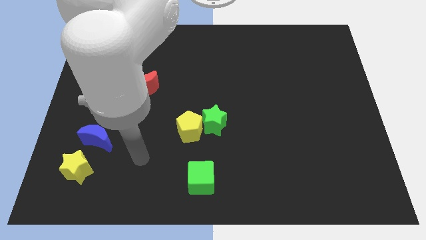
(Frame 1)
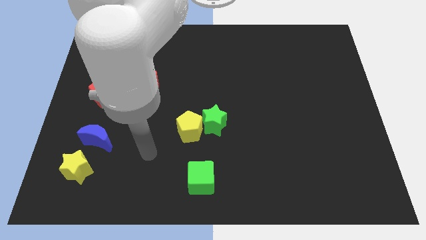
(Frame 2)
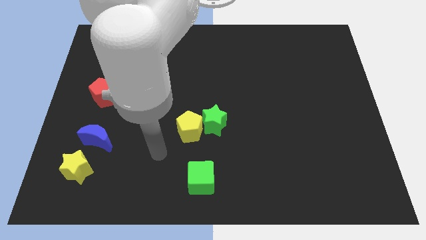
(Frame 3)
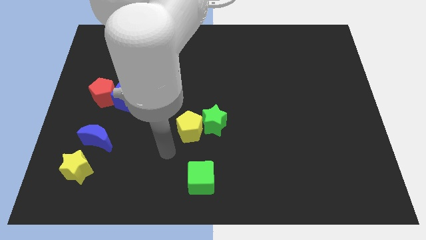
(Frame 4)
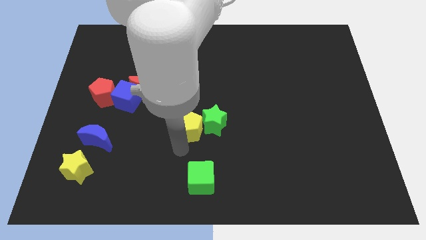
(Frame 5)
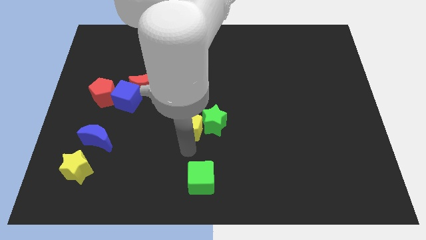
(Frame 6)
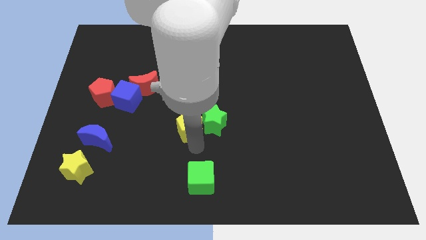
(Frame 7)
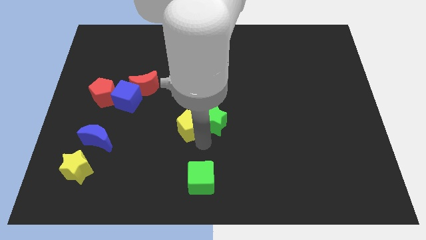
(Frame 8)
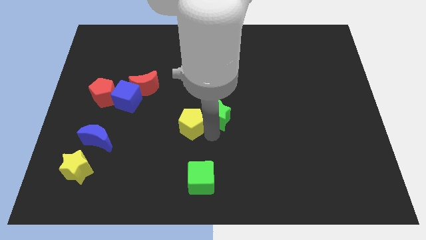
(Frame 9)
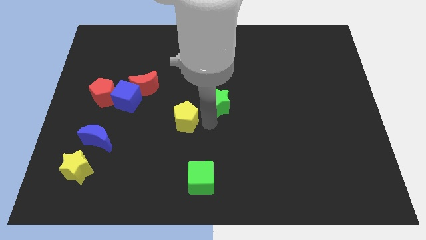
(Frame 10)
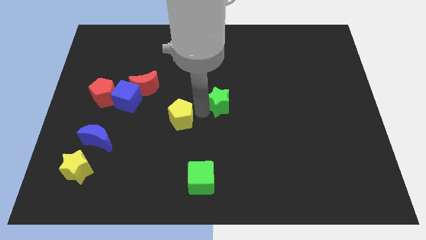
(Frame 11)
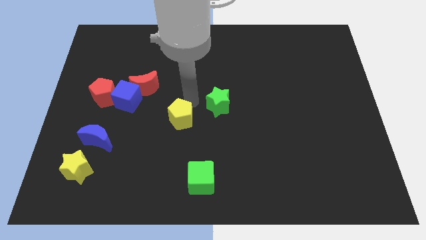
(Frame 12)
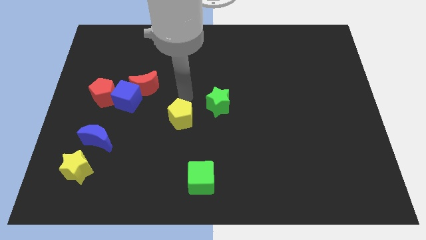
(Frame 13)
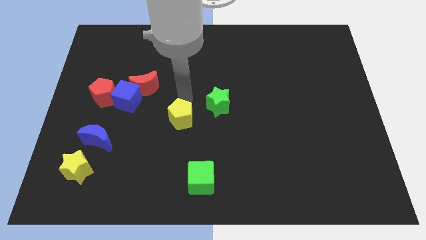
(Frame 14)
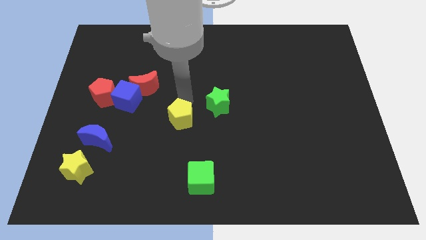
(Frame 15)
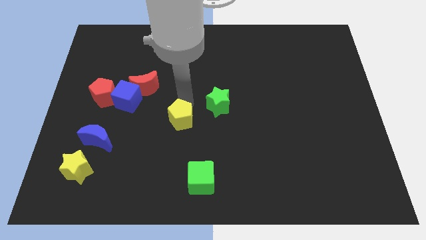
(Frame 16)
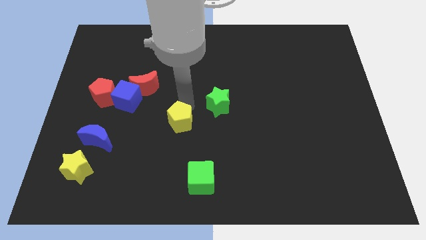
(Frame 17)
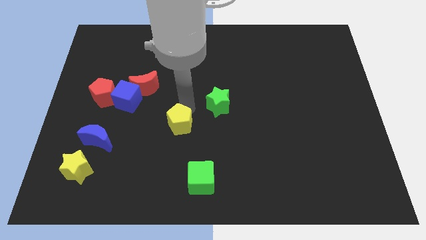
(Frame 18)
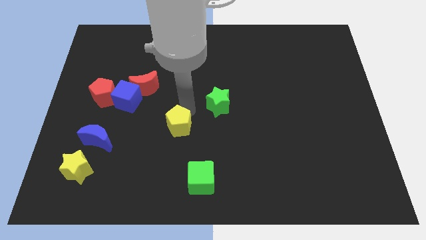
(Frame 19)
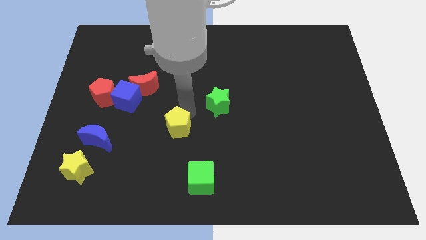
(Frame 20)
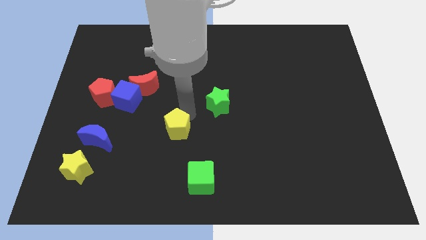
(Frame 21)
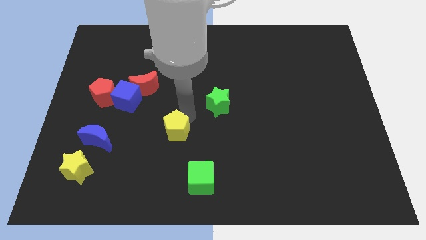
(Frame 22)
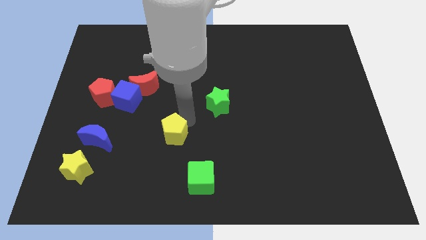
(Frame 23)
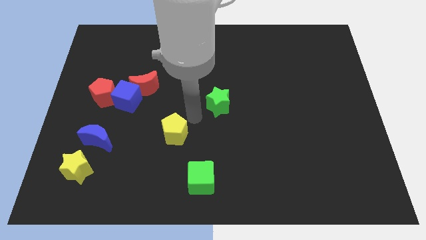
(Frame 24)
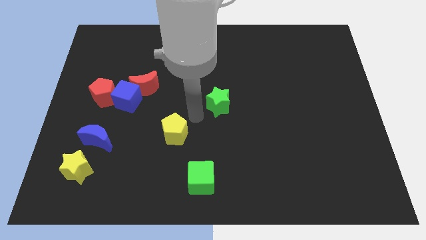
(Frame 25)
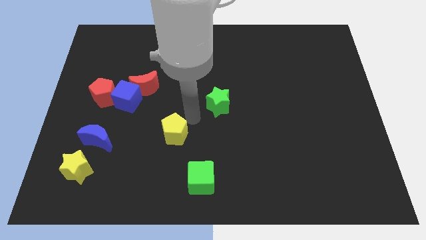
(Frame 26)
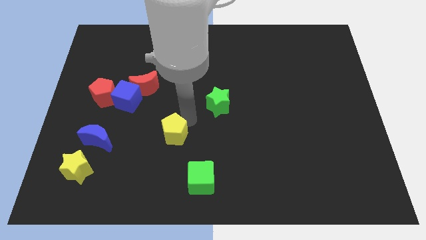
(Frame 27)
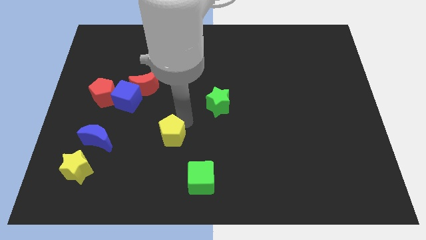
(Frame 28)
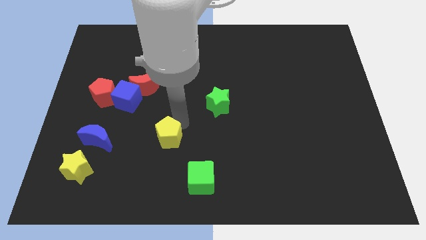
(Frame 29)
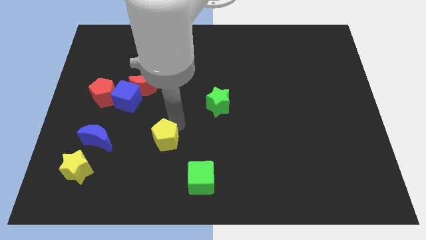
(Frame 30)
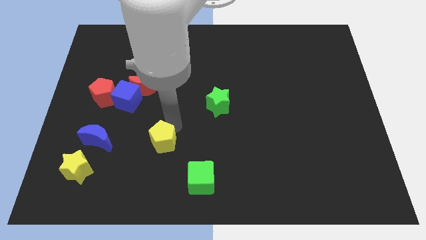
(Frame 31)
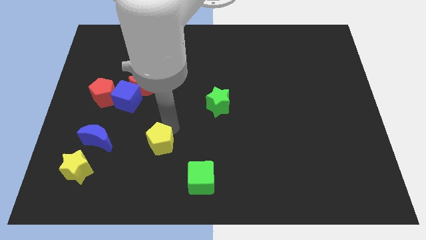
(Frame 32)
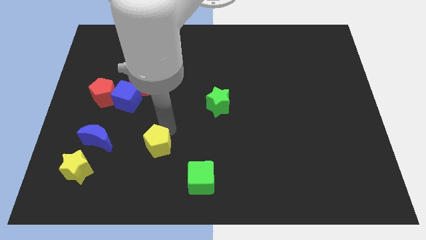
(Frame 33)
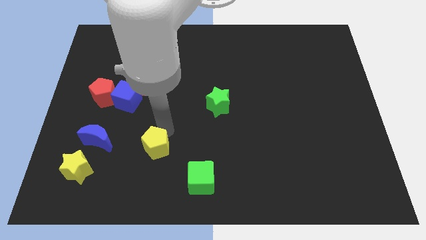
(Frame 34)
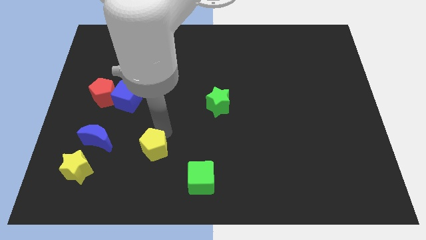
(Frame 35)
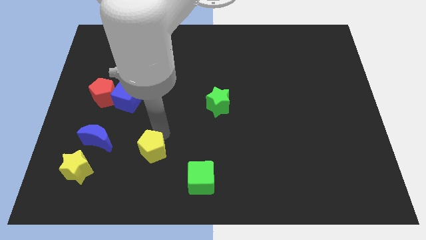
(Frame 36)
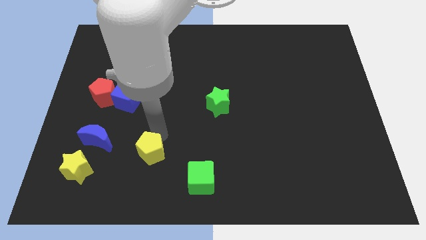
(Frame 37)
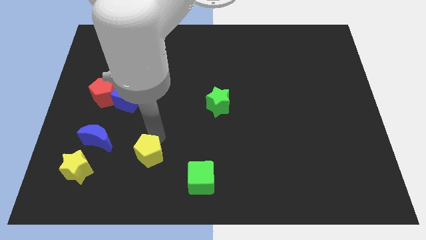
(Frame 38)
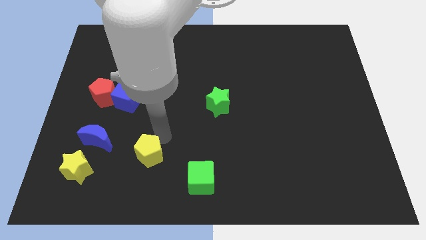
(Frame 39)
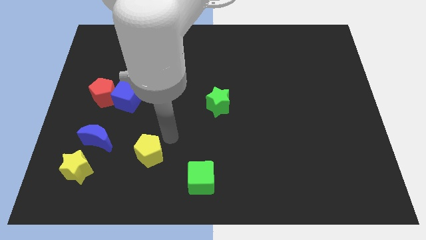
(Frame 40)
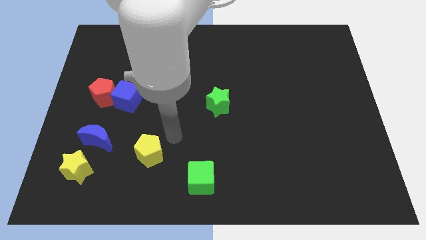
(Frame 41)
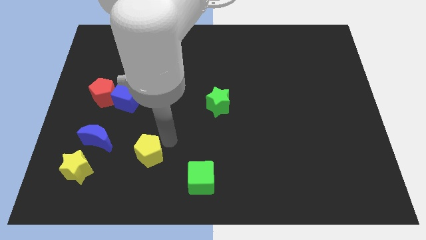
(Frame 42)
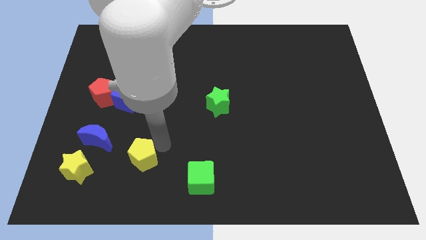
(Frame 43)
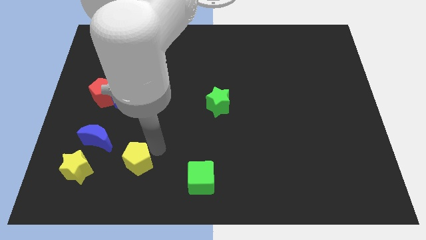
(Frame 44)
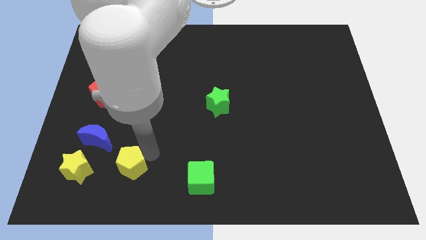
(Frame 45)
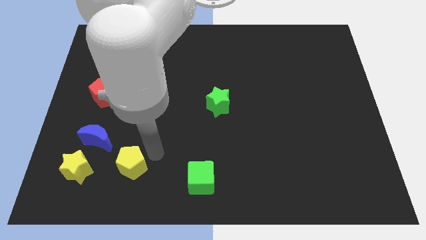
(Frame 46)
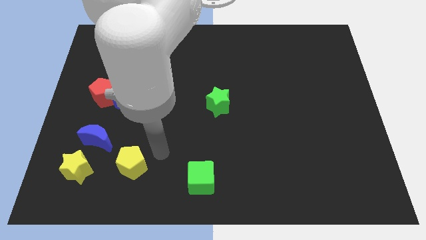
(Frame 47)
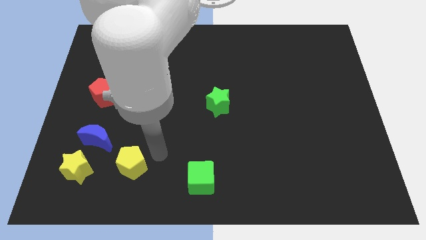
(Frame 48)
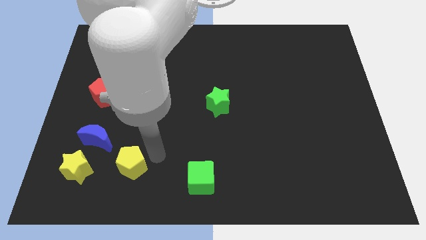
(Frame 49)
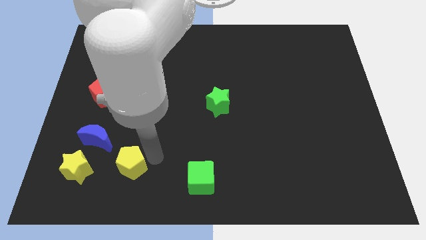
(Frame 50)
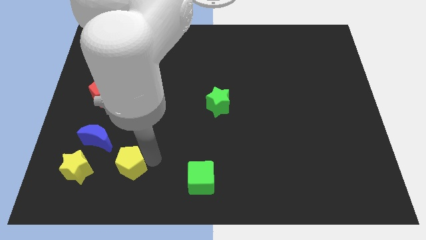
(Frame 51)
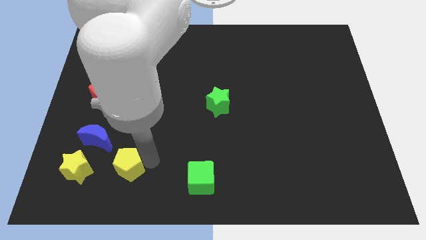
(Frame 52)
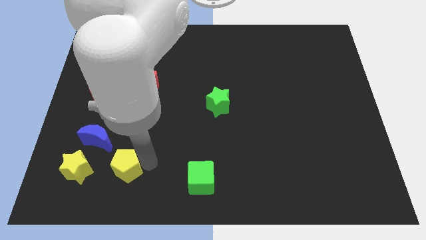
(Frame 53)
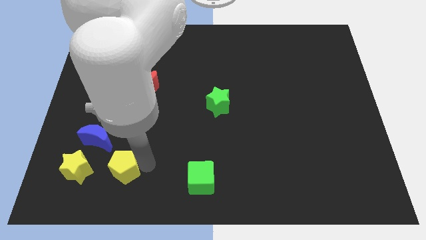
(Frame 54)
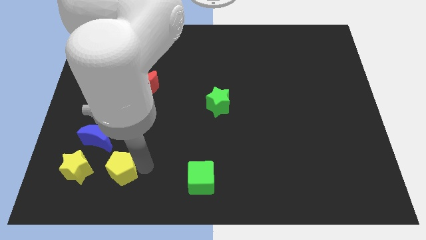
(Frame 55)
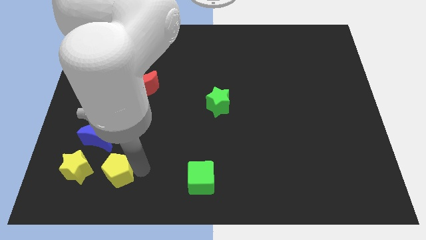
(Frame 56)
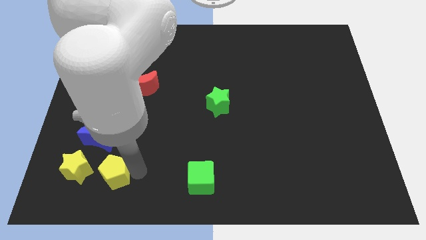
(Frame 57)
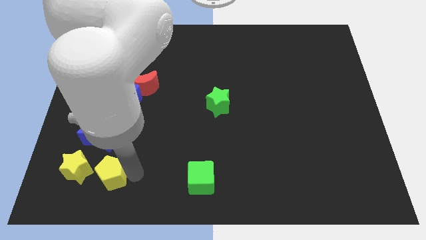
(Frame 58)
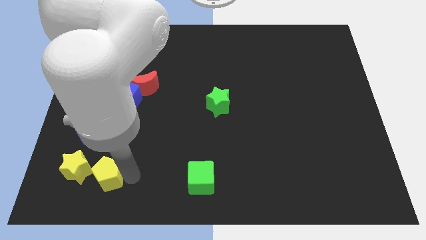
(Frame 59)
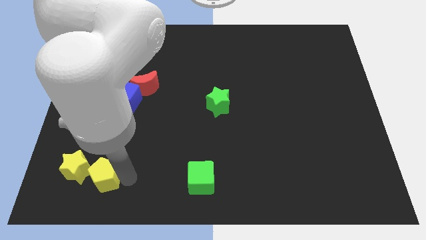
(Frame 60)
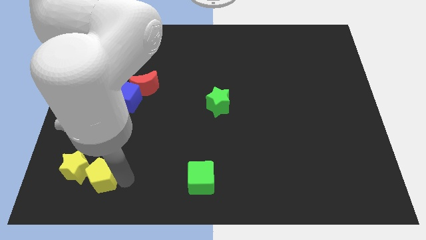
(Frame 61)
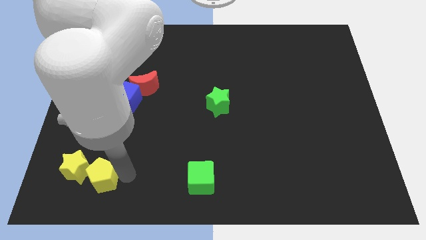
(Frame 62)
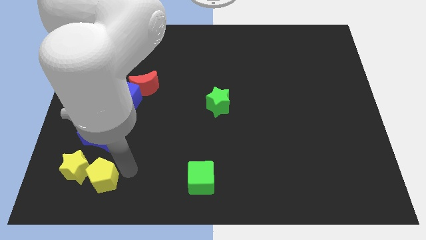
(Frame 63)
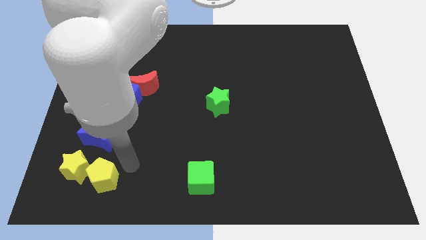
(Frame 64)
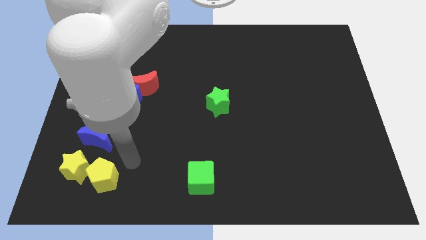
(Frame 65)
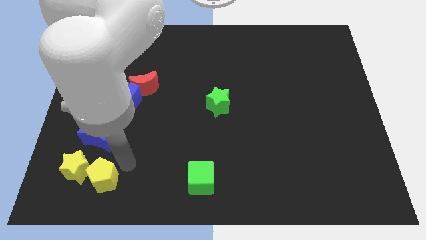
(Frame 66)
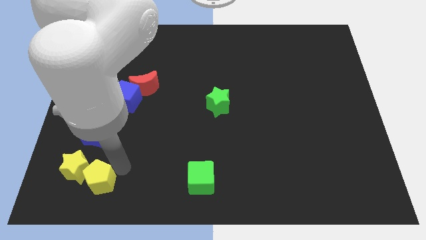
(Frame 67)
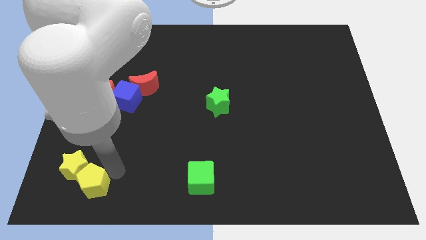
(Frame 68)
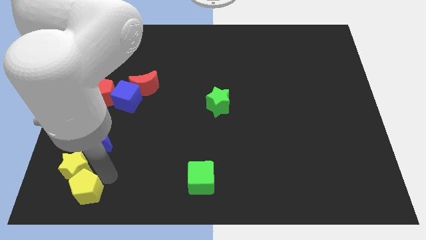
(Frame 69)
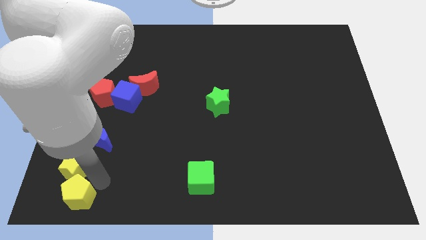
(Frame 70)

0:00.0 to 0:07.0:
push the yellow pentagon to the bottom left

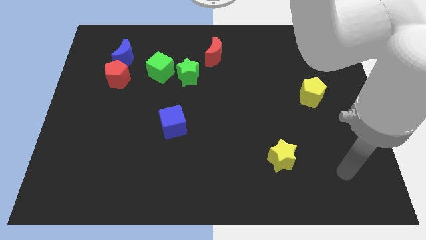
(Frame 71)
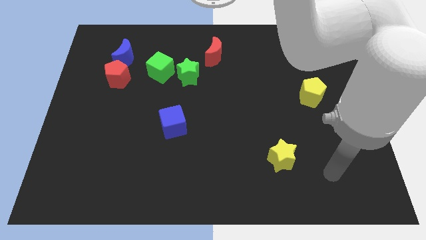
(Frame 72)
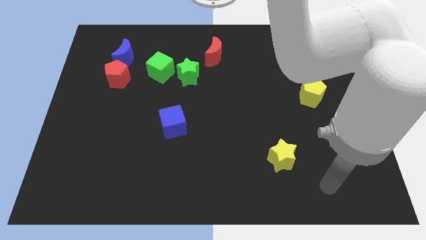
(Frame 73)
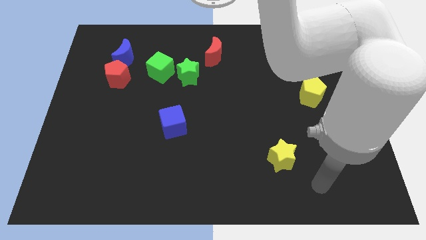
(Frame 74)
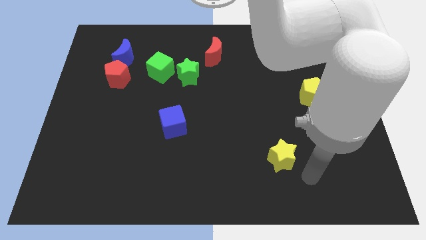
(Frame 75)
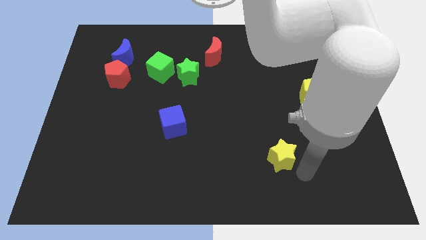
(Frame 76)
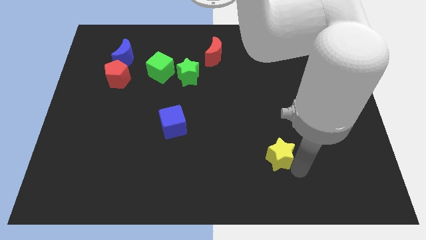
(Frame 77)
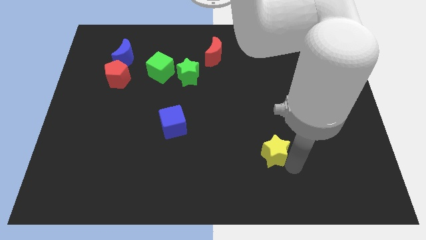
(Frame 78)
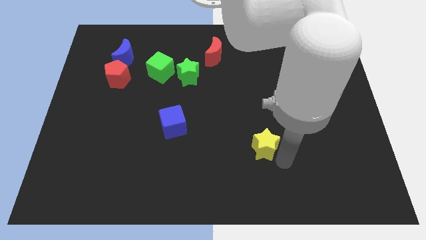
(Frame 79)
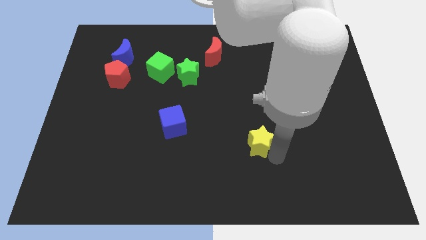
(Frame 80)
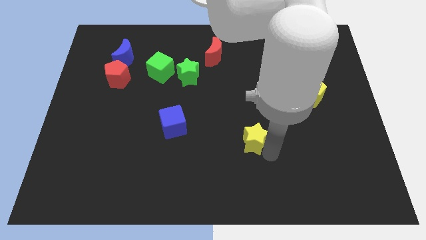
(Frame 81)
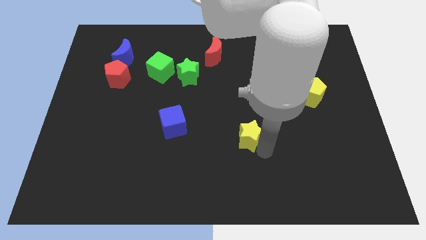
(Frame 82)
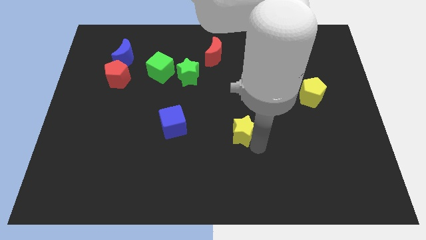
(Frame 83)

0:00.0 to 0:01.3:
move the yellow star to the center
